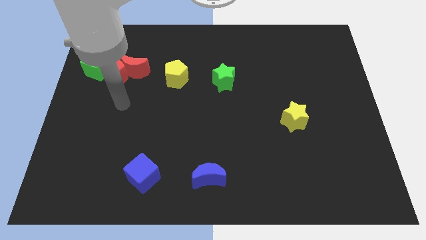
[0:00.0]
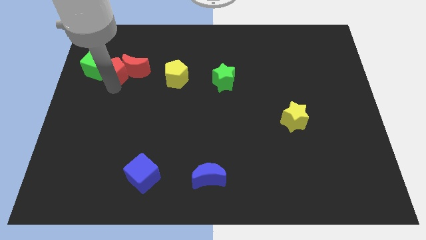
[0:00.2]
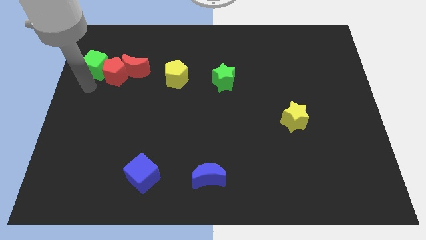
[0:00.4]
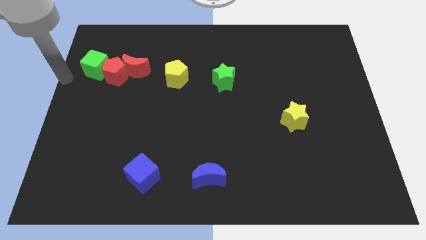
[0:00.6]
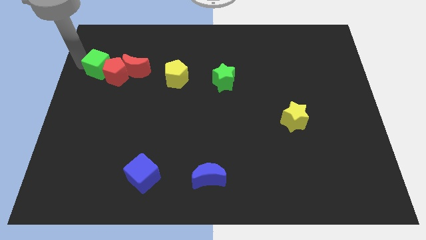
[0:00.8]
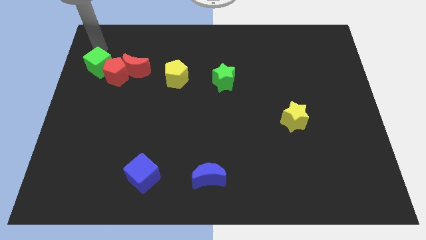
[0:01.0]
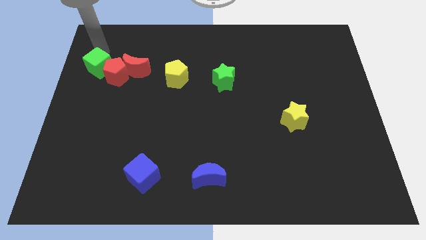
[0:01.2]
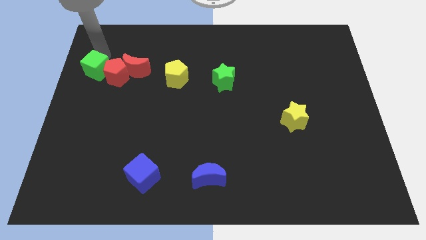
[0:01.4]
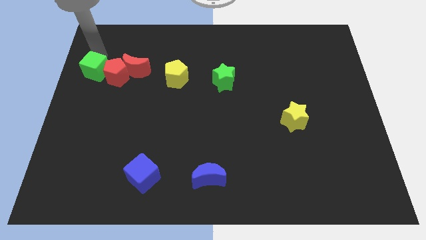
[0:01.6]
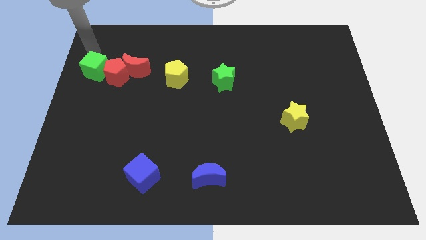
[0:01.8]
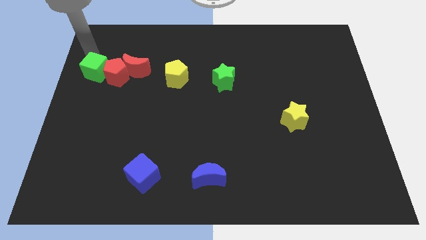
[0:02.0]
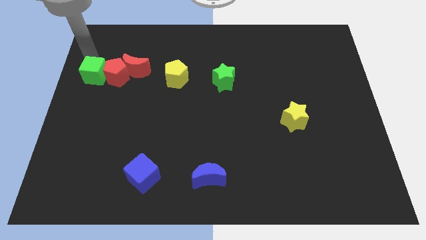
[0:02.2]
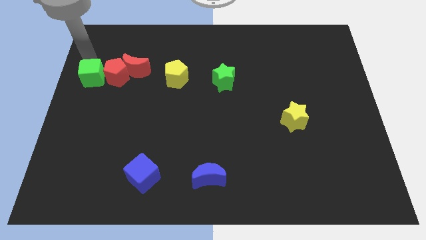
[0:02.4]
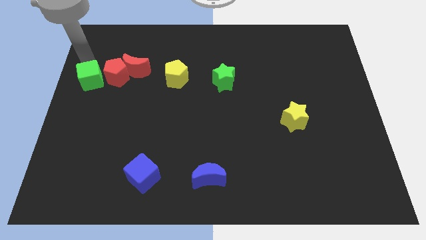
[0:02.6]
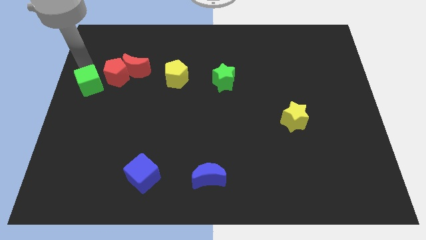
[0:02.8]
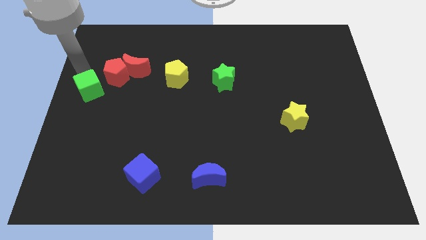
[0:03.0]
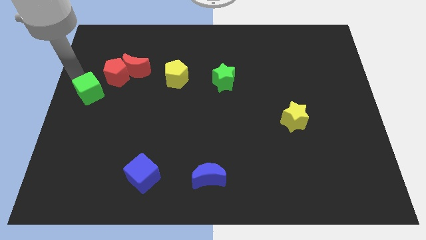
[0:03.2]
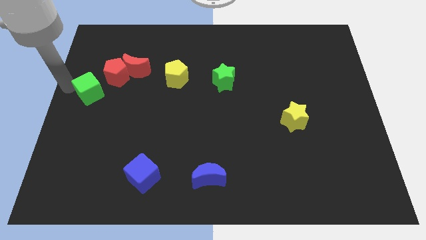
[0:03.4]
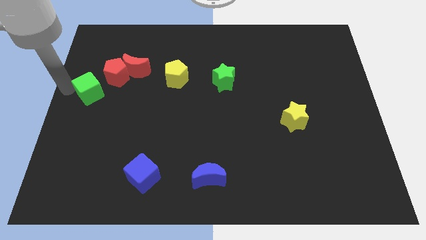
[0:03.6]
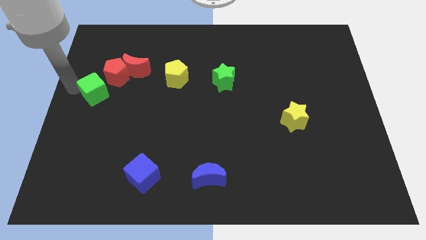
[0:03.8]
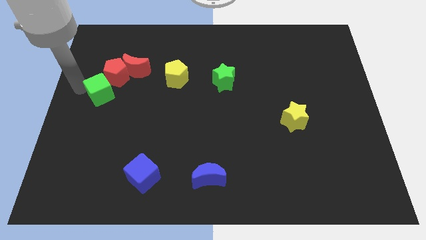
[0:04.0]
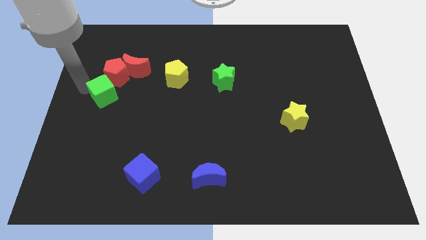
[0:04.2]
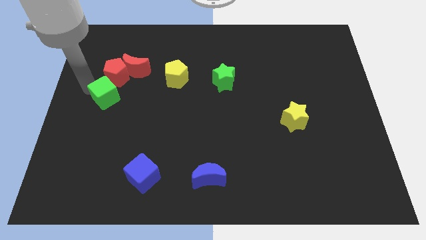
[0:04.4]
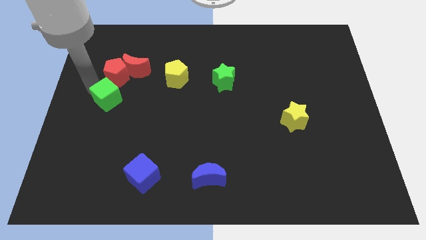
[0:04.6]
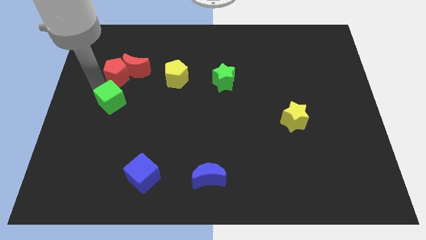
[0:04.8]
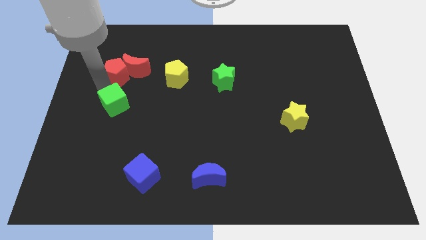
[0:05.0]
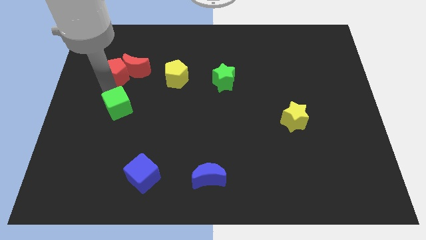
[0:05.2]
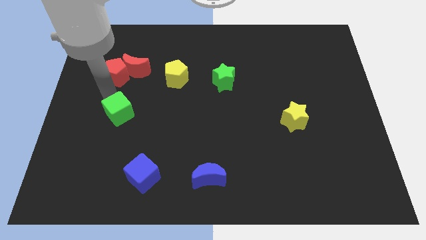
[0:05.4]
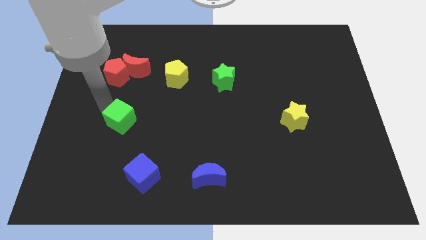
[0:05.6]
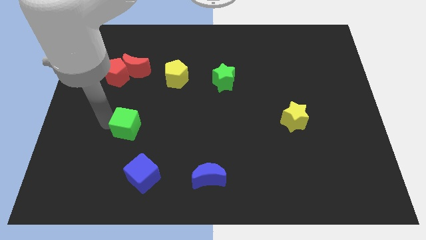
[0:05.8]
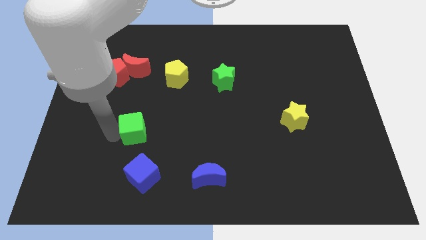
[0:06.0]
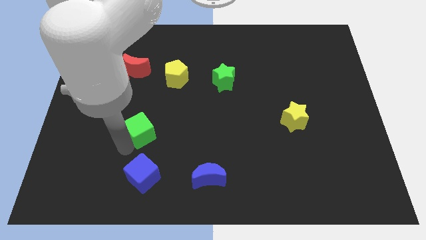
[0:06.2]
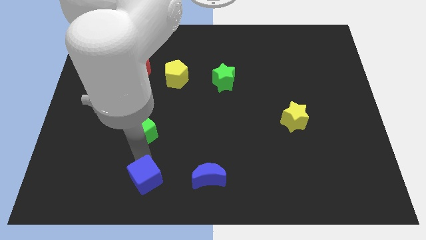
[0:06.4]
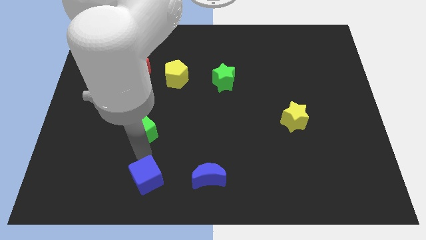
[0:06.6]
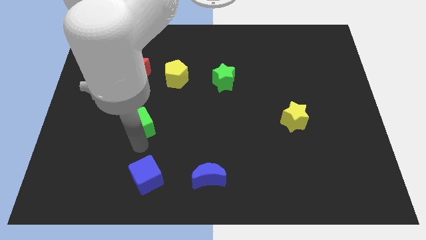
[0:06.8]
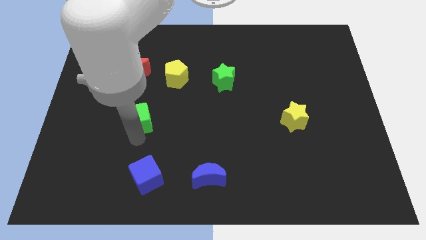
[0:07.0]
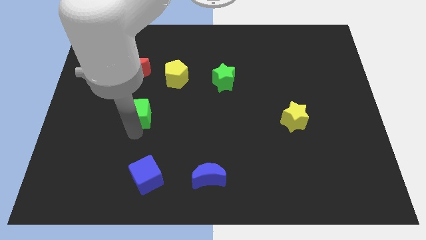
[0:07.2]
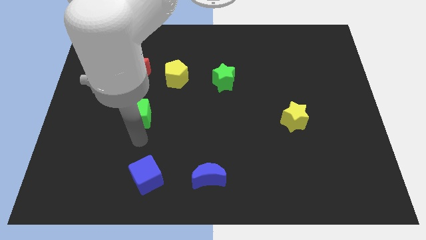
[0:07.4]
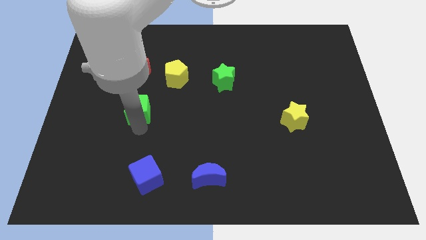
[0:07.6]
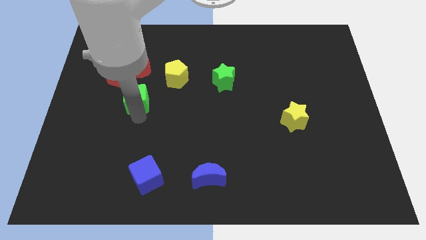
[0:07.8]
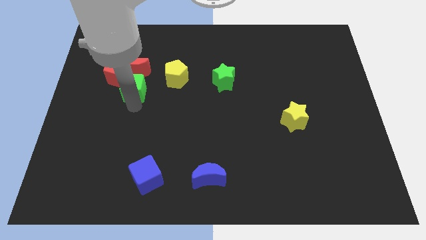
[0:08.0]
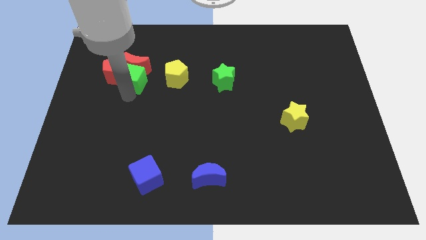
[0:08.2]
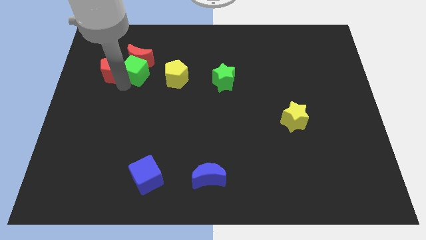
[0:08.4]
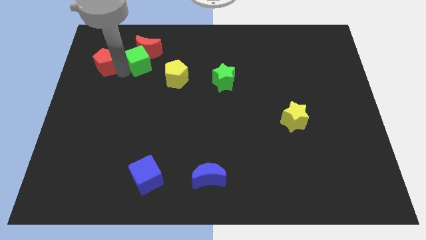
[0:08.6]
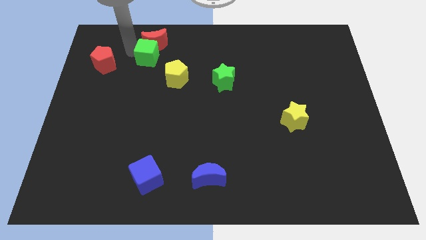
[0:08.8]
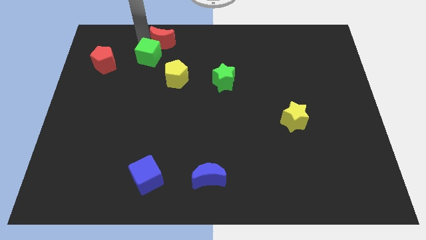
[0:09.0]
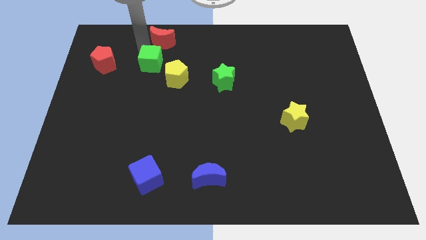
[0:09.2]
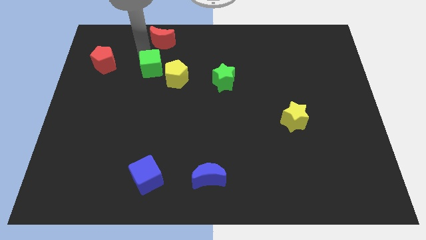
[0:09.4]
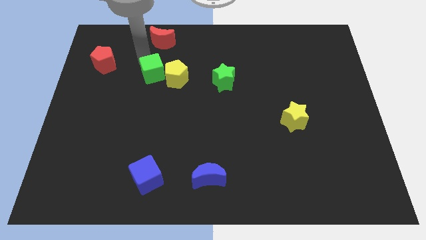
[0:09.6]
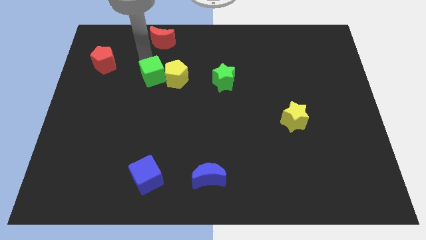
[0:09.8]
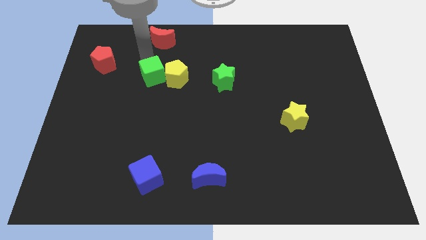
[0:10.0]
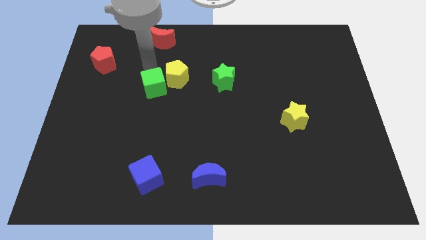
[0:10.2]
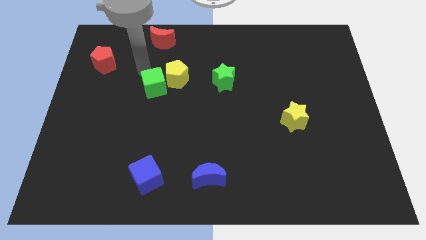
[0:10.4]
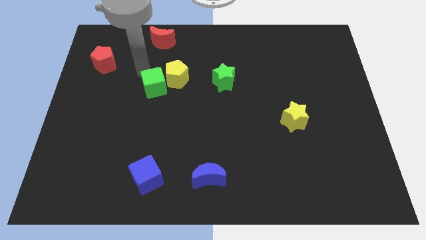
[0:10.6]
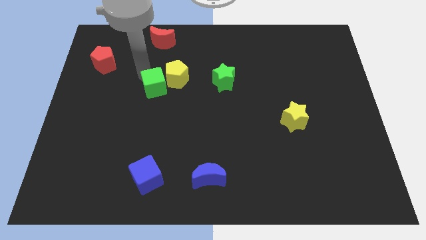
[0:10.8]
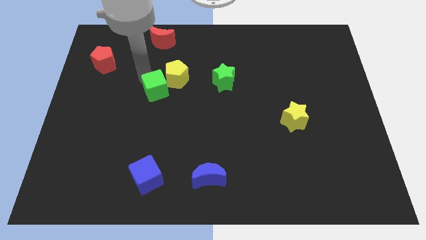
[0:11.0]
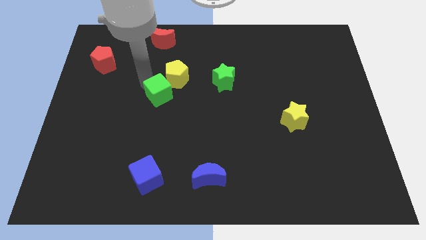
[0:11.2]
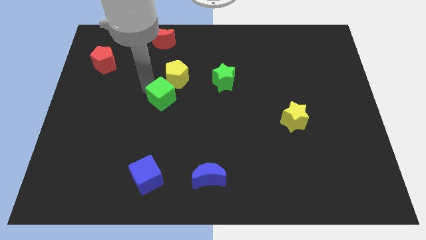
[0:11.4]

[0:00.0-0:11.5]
slide the green cube to the center
